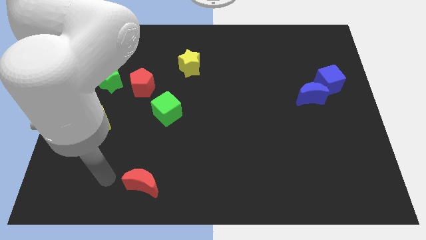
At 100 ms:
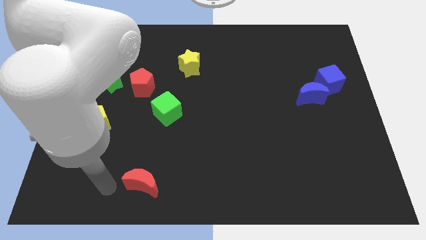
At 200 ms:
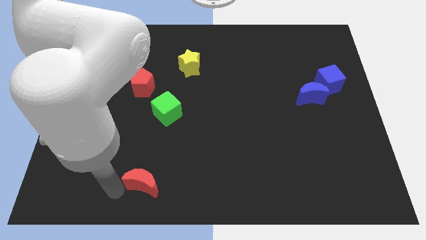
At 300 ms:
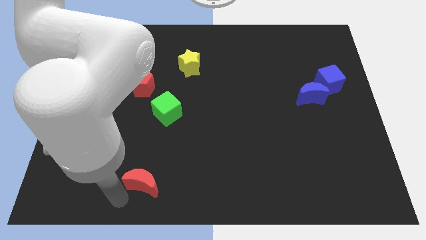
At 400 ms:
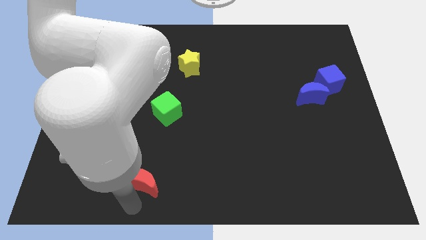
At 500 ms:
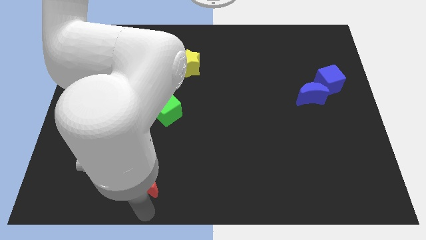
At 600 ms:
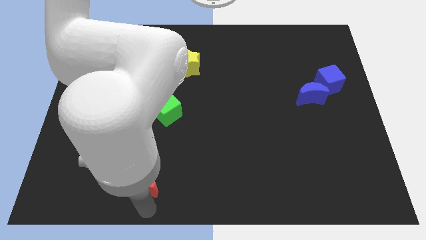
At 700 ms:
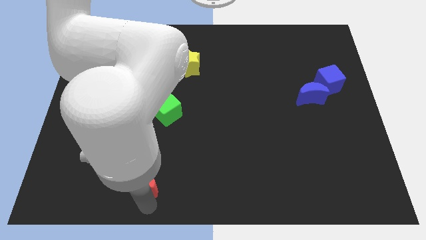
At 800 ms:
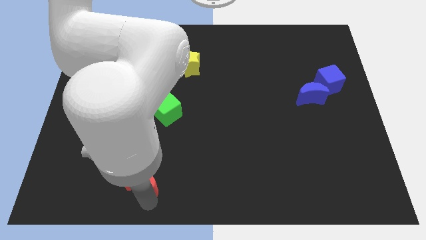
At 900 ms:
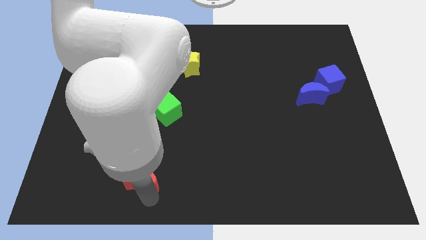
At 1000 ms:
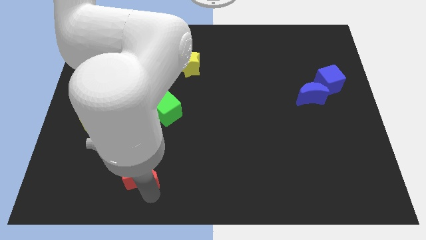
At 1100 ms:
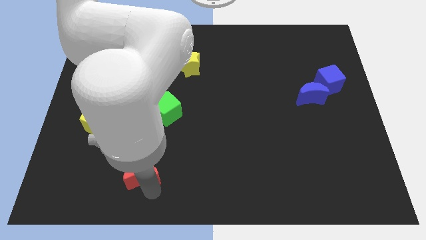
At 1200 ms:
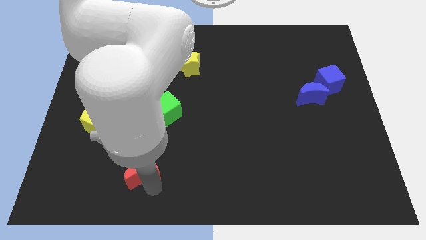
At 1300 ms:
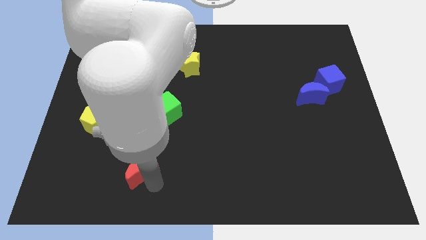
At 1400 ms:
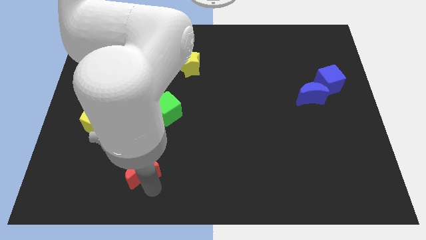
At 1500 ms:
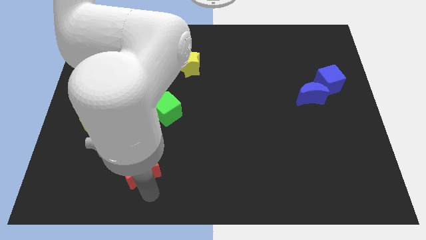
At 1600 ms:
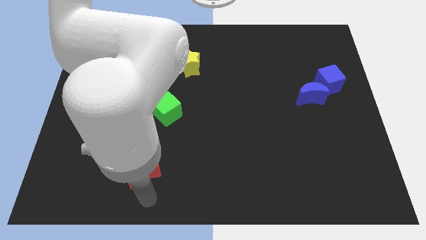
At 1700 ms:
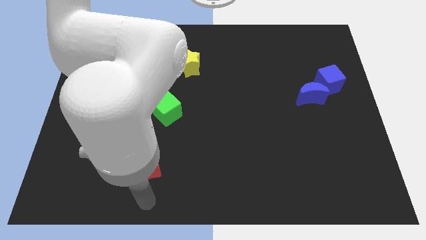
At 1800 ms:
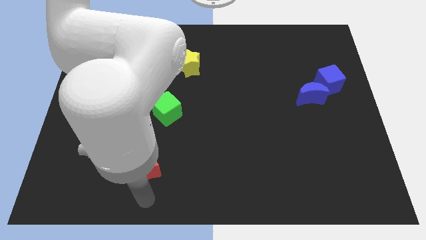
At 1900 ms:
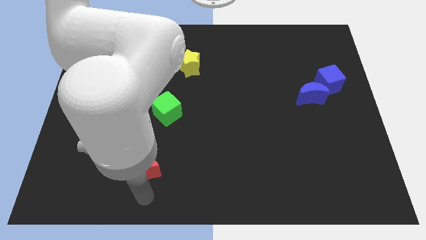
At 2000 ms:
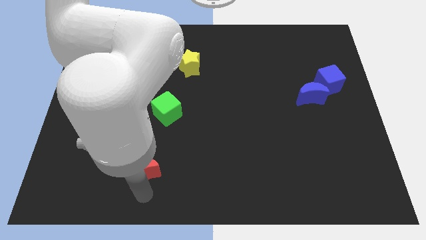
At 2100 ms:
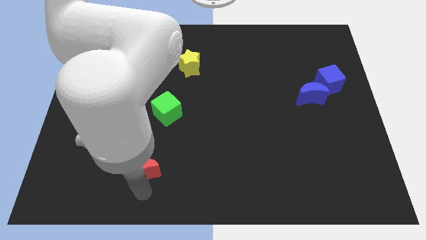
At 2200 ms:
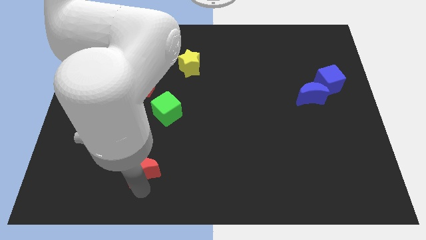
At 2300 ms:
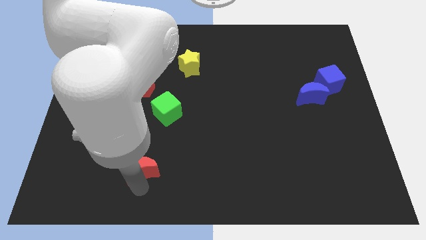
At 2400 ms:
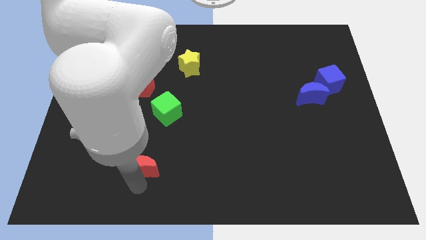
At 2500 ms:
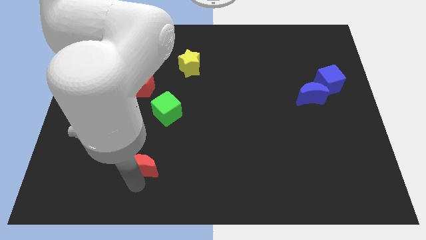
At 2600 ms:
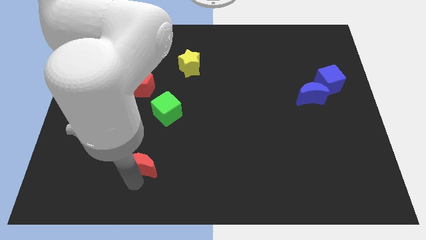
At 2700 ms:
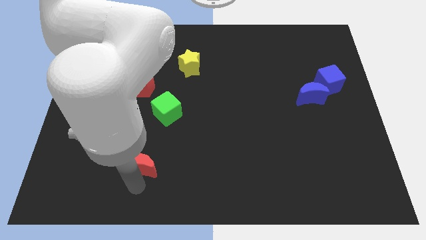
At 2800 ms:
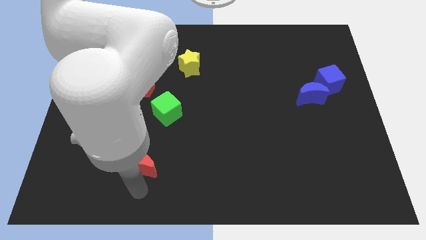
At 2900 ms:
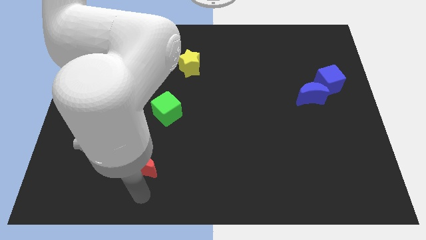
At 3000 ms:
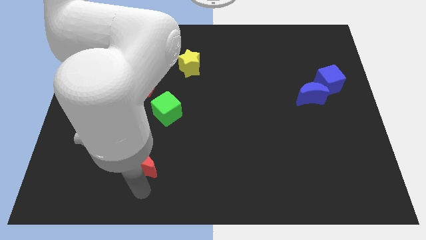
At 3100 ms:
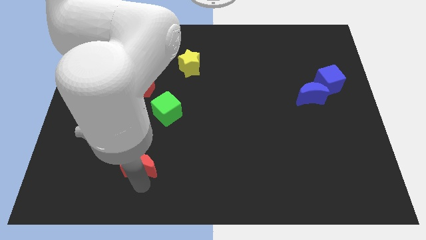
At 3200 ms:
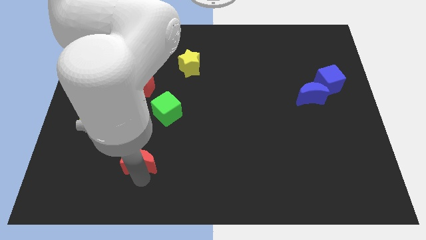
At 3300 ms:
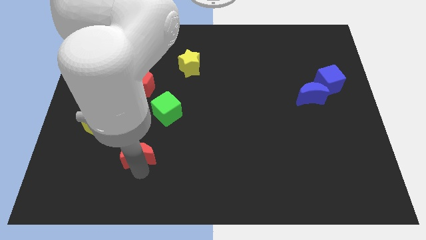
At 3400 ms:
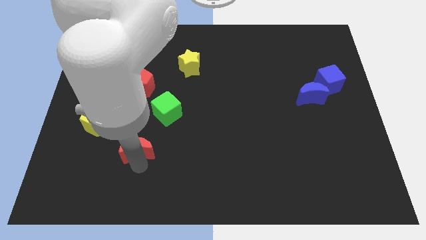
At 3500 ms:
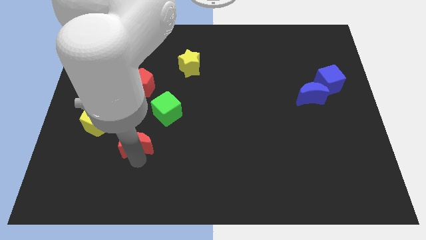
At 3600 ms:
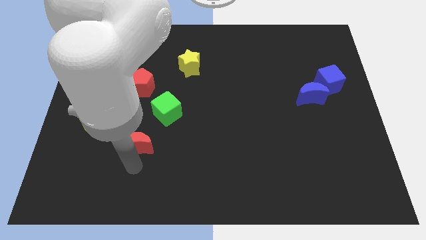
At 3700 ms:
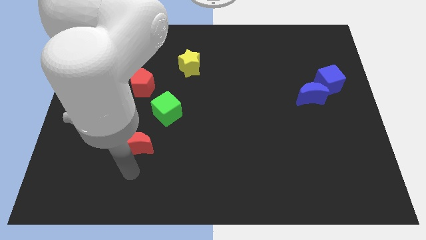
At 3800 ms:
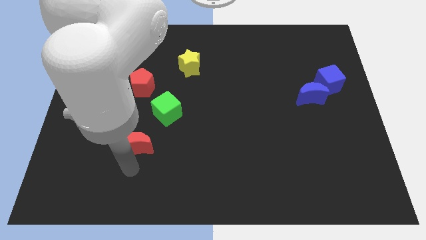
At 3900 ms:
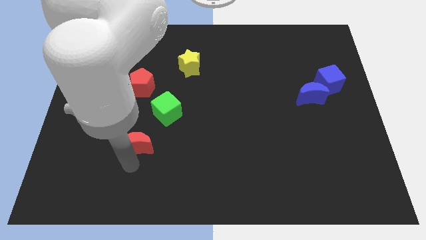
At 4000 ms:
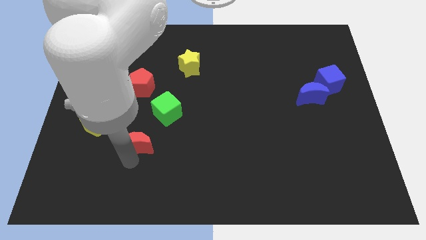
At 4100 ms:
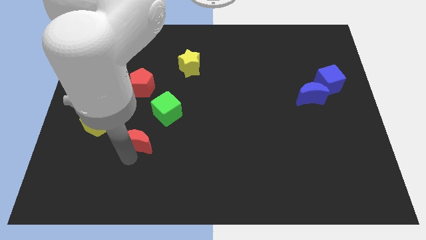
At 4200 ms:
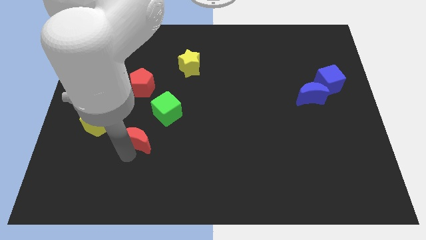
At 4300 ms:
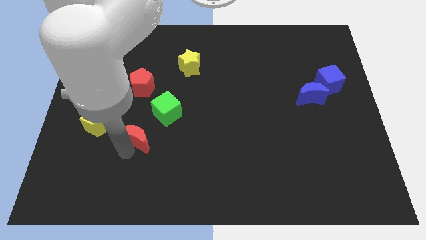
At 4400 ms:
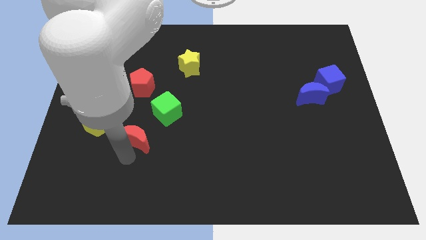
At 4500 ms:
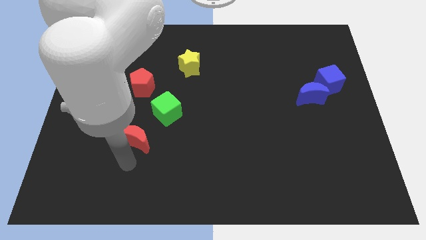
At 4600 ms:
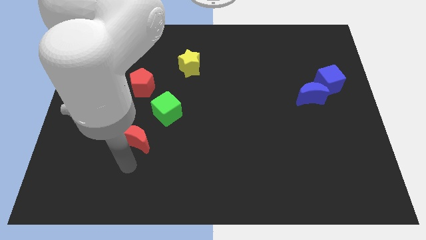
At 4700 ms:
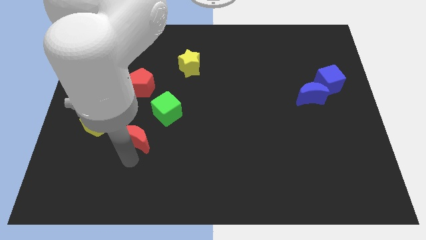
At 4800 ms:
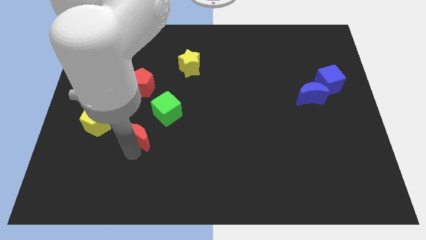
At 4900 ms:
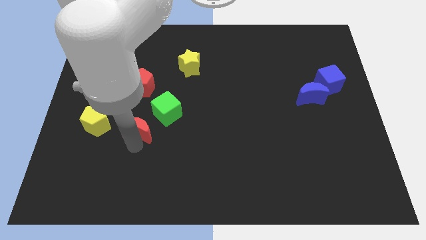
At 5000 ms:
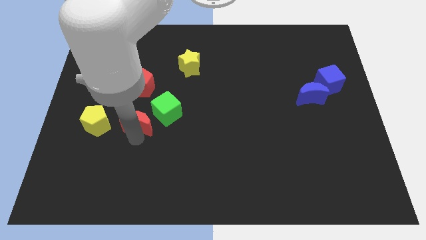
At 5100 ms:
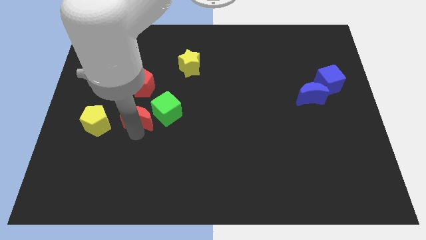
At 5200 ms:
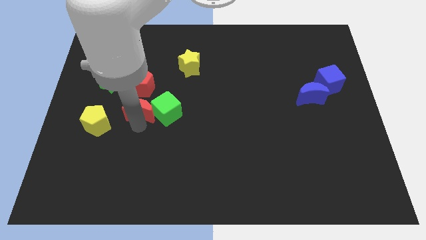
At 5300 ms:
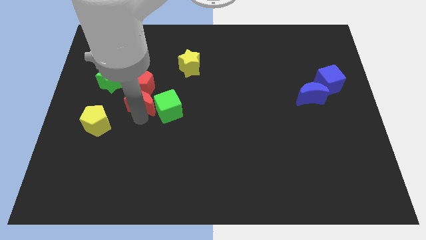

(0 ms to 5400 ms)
move the red moon next to the red pentagon

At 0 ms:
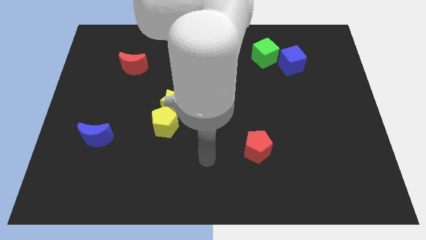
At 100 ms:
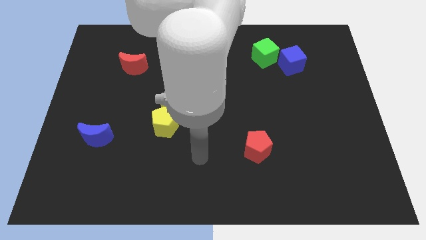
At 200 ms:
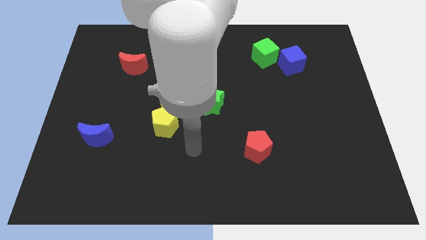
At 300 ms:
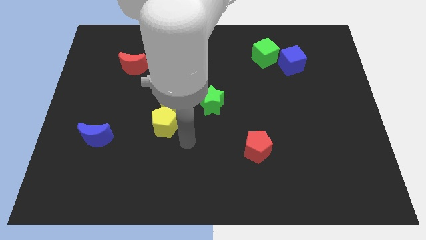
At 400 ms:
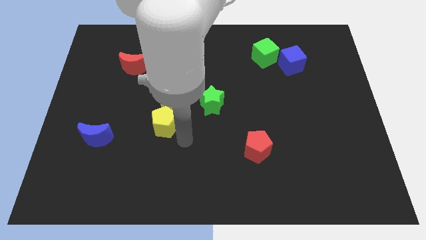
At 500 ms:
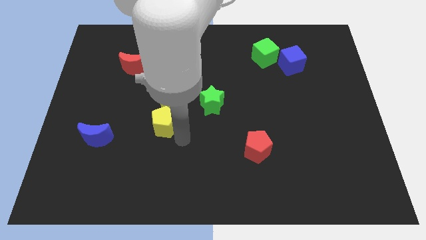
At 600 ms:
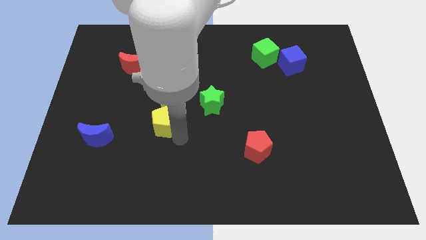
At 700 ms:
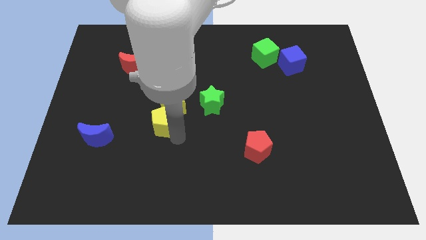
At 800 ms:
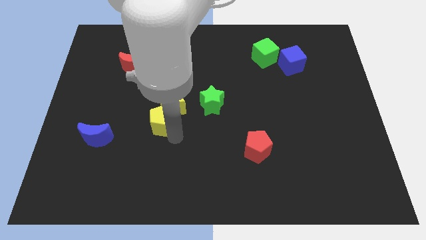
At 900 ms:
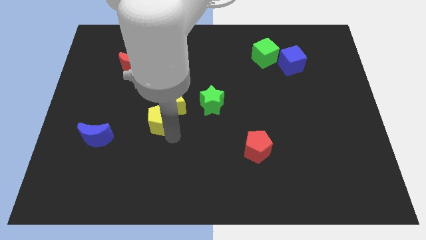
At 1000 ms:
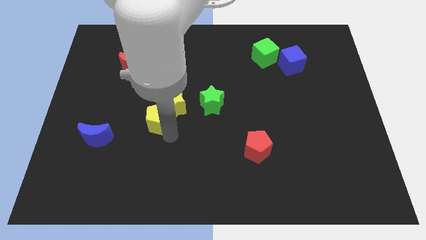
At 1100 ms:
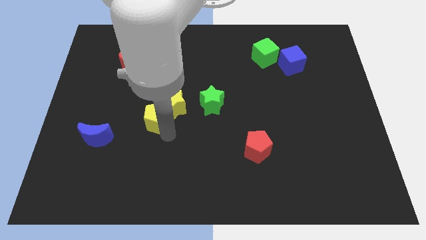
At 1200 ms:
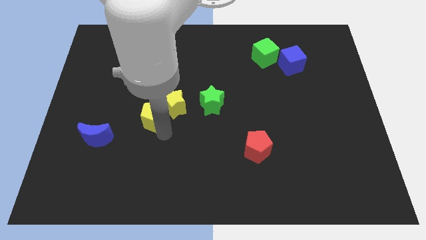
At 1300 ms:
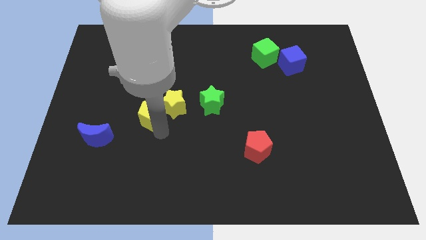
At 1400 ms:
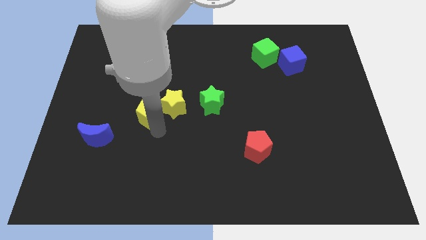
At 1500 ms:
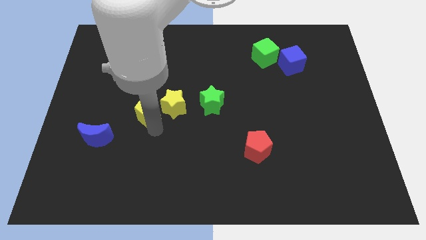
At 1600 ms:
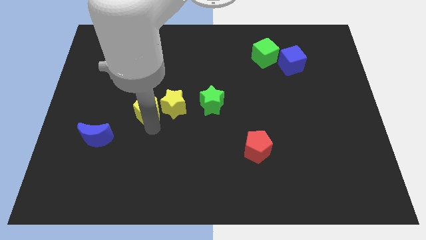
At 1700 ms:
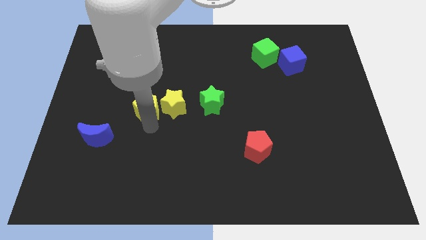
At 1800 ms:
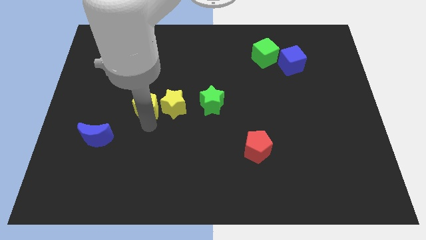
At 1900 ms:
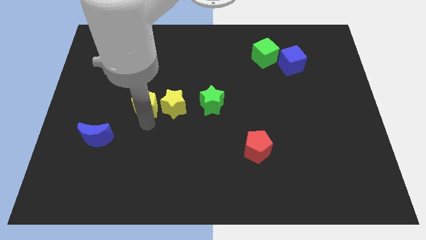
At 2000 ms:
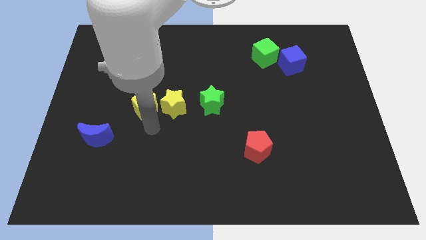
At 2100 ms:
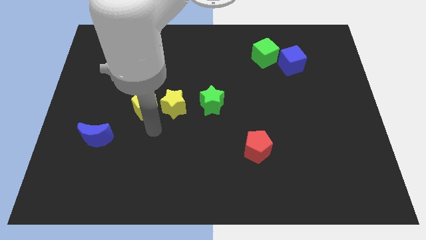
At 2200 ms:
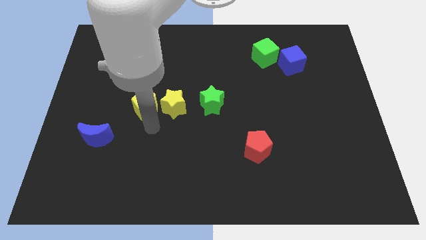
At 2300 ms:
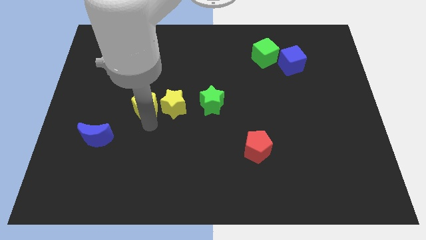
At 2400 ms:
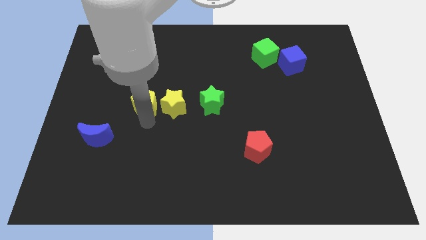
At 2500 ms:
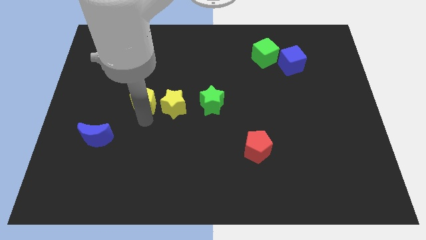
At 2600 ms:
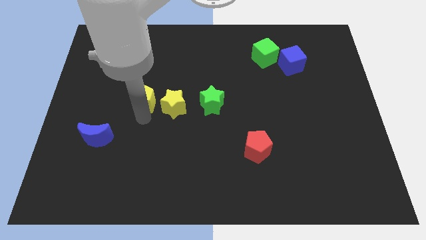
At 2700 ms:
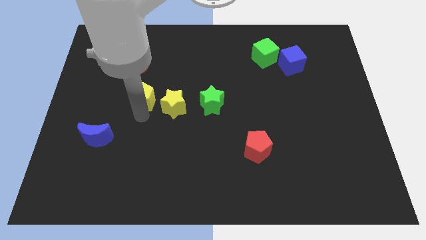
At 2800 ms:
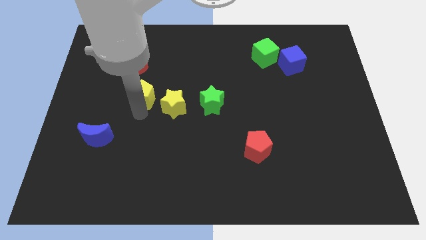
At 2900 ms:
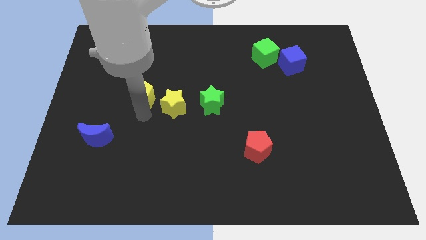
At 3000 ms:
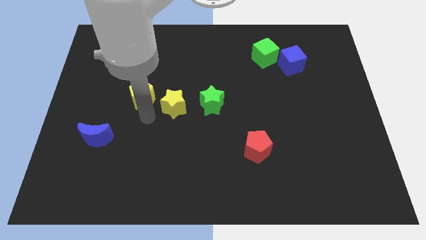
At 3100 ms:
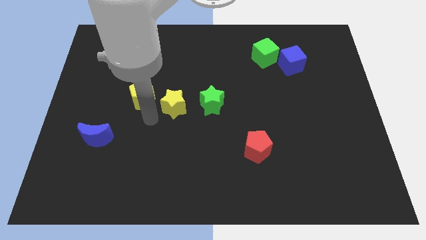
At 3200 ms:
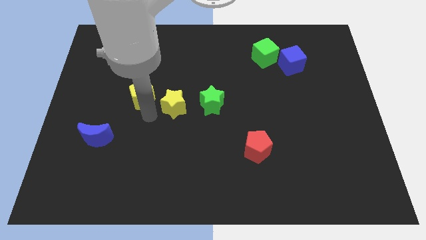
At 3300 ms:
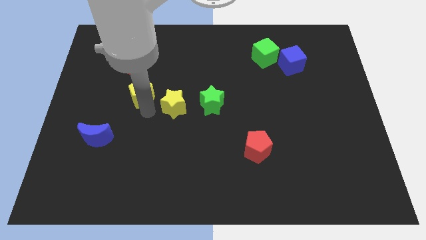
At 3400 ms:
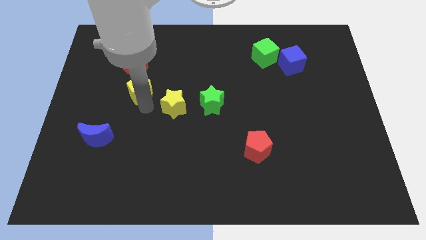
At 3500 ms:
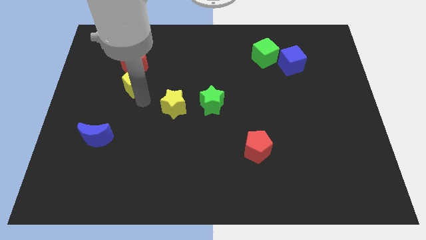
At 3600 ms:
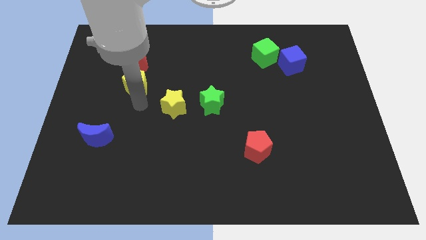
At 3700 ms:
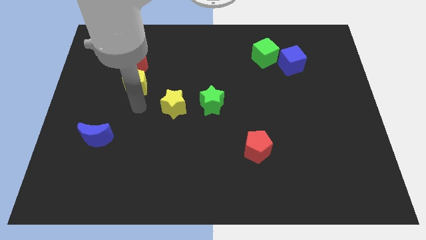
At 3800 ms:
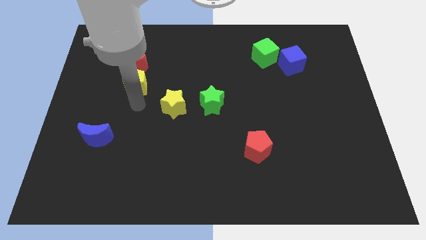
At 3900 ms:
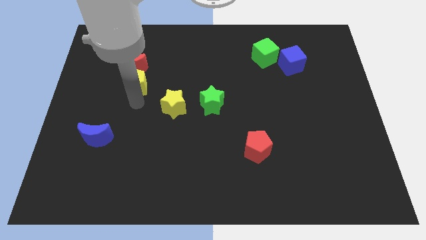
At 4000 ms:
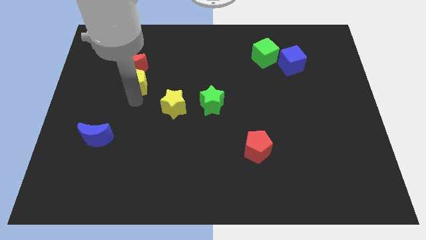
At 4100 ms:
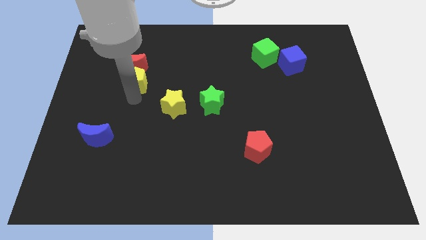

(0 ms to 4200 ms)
move the yellow pentagon close to the red moon
